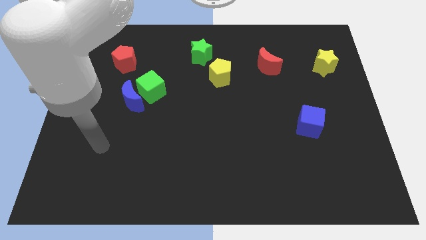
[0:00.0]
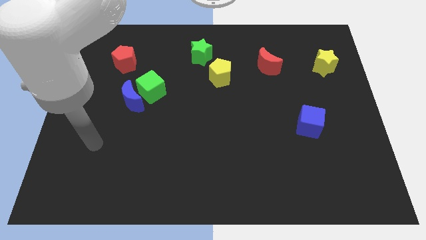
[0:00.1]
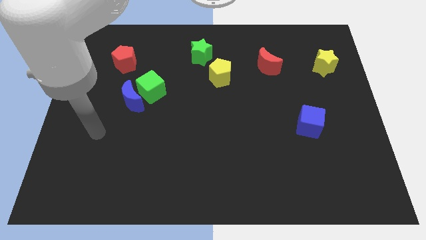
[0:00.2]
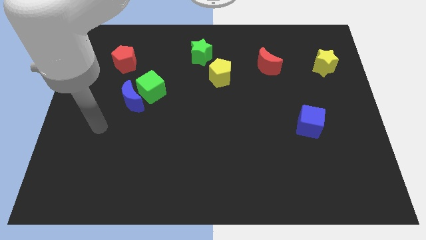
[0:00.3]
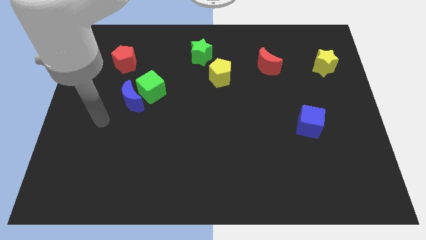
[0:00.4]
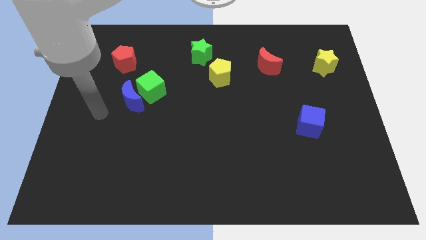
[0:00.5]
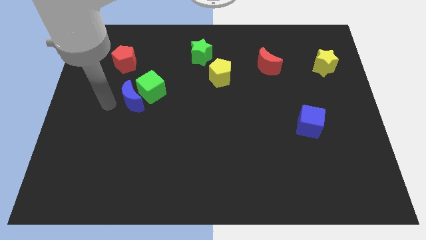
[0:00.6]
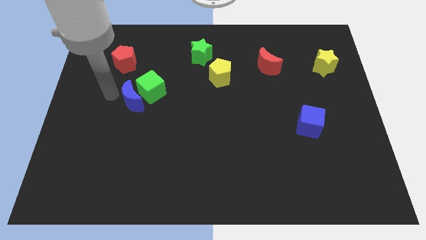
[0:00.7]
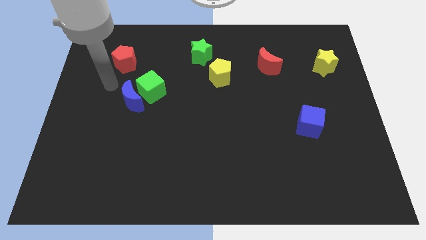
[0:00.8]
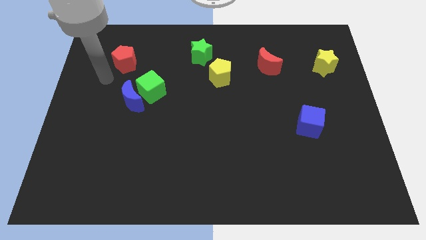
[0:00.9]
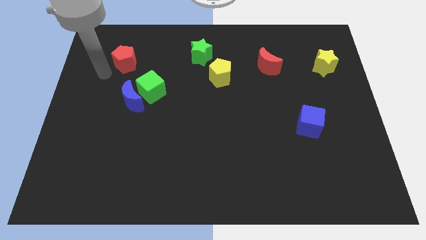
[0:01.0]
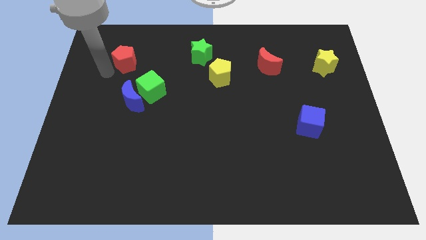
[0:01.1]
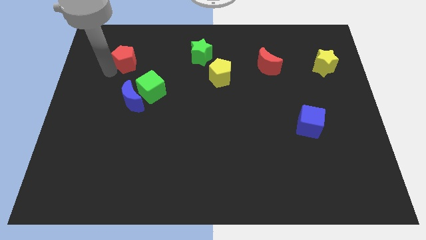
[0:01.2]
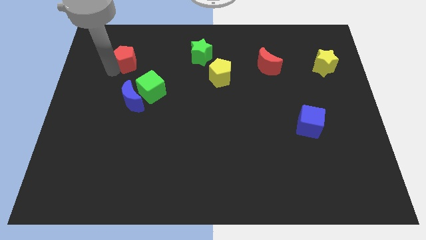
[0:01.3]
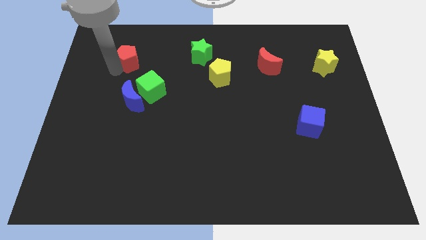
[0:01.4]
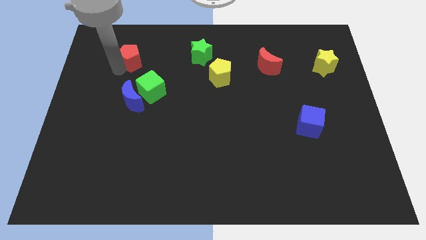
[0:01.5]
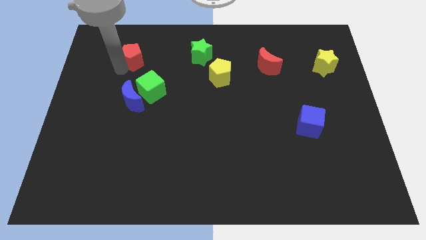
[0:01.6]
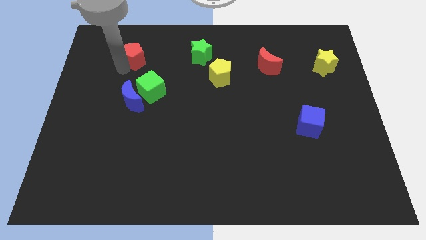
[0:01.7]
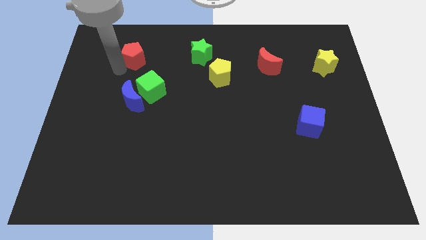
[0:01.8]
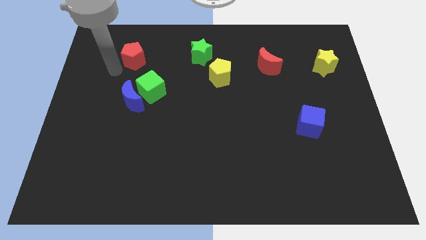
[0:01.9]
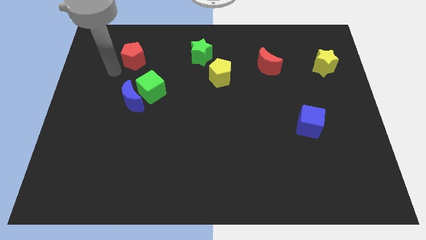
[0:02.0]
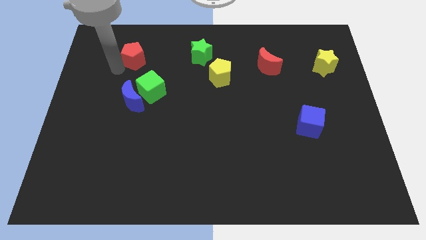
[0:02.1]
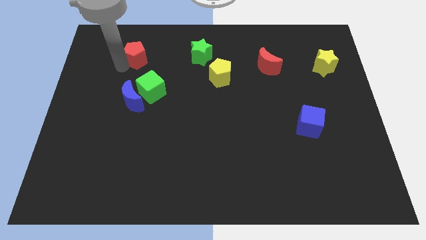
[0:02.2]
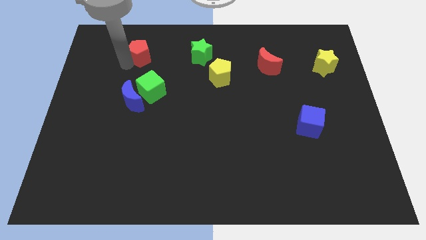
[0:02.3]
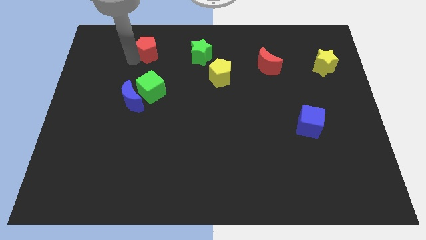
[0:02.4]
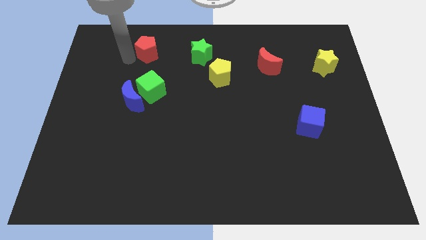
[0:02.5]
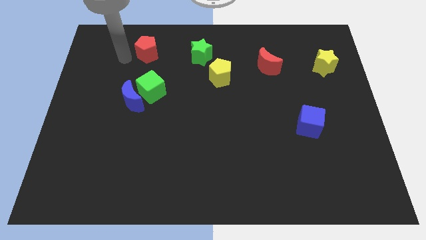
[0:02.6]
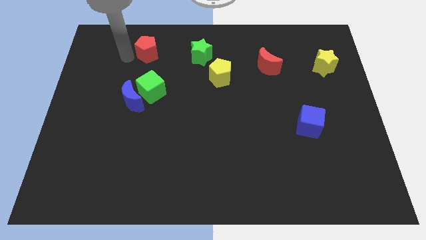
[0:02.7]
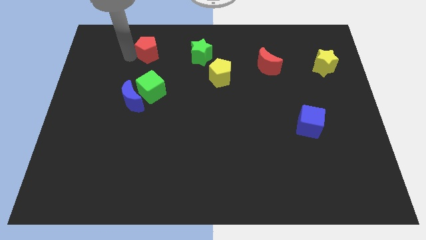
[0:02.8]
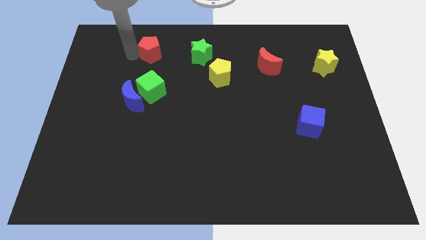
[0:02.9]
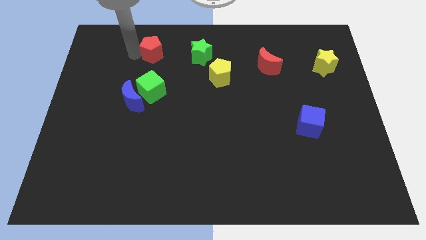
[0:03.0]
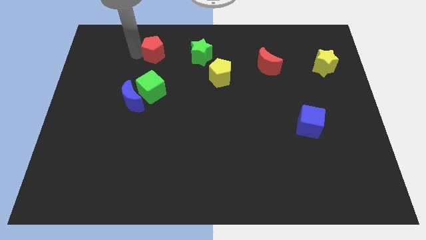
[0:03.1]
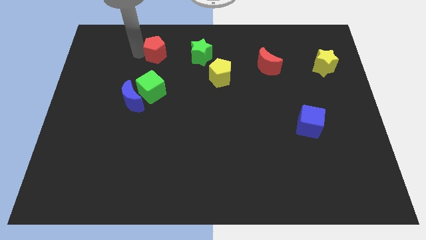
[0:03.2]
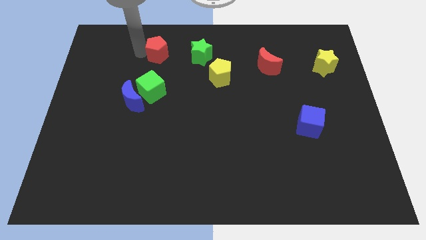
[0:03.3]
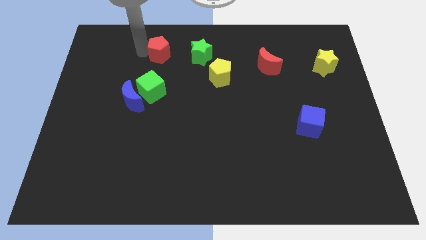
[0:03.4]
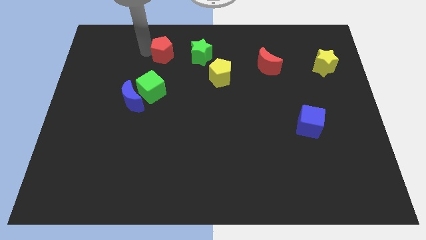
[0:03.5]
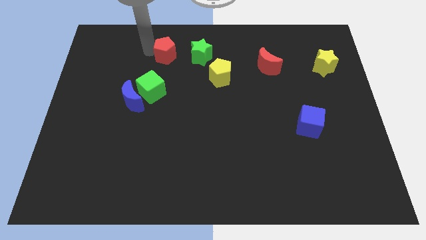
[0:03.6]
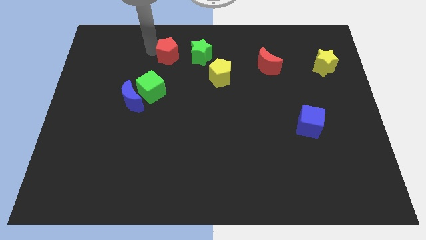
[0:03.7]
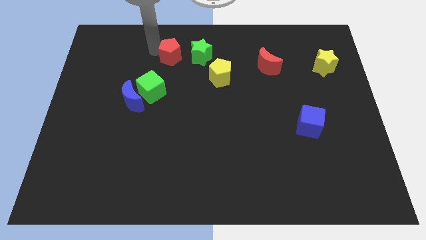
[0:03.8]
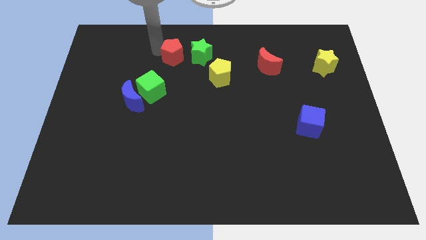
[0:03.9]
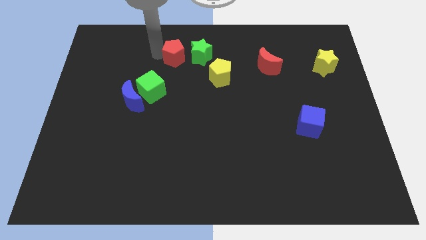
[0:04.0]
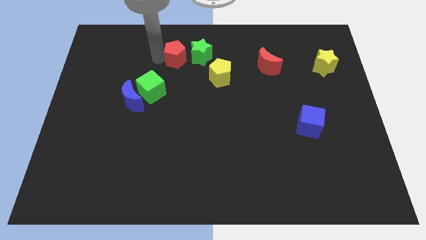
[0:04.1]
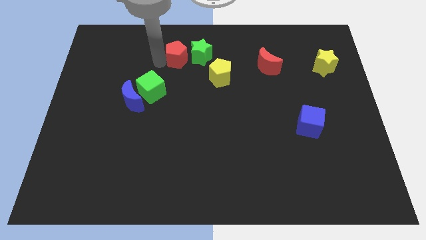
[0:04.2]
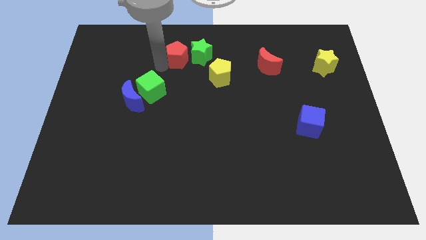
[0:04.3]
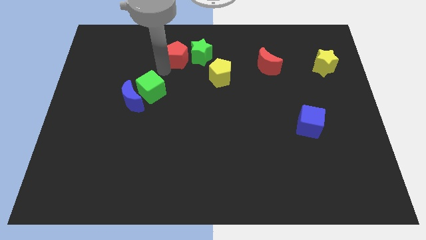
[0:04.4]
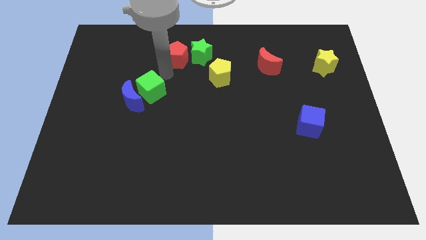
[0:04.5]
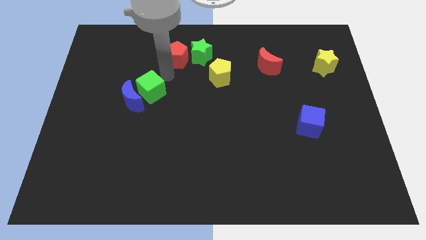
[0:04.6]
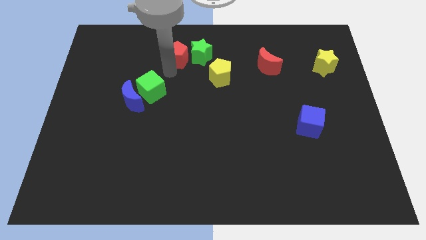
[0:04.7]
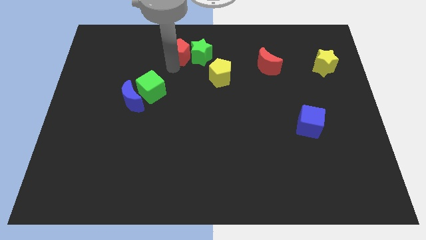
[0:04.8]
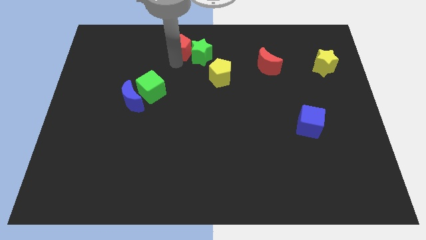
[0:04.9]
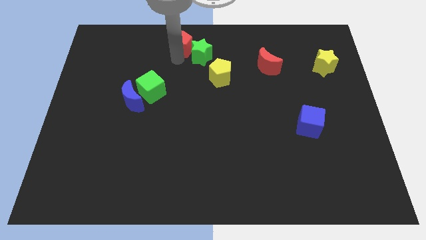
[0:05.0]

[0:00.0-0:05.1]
slide the red pentagon to the top side

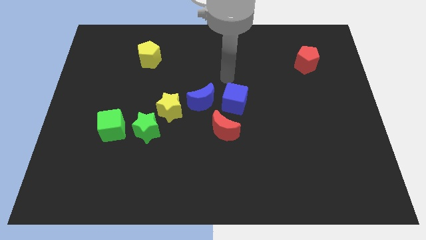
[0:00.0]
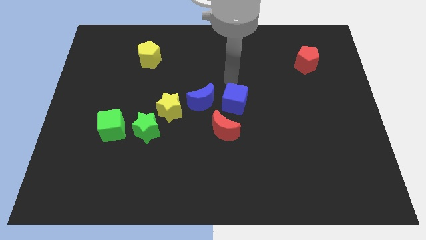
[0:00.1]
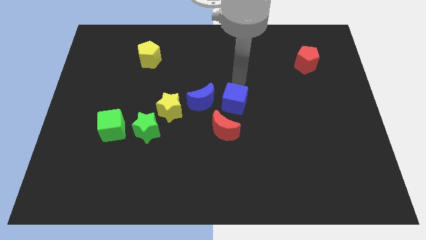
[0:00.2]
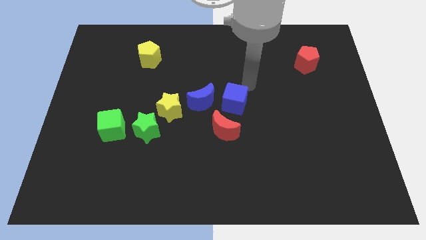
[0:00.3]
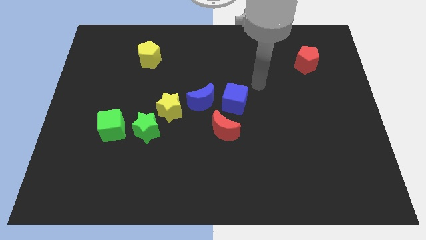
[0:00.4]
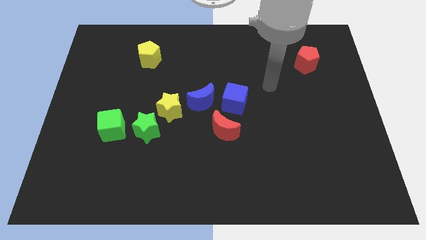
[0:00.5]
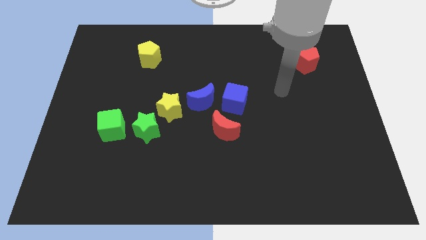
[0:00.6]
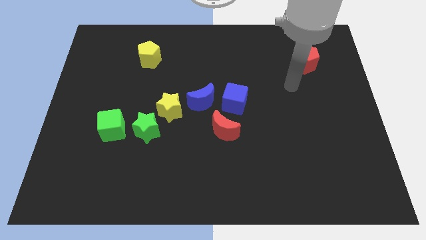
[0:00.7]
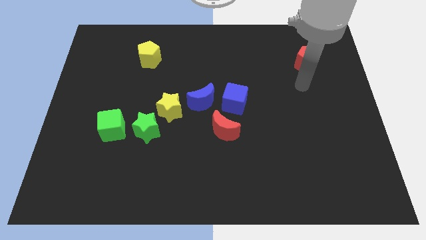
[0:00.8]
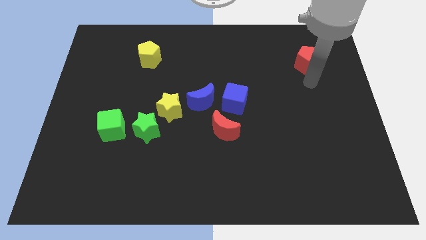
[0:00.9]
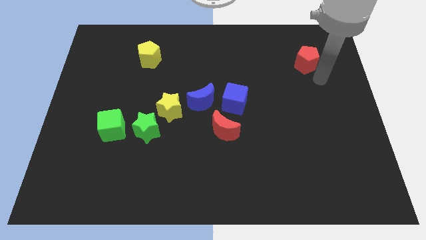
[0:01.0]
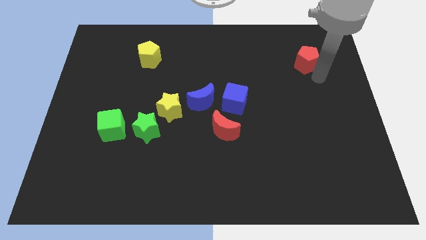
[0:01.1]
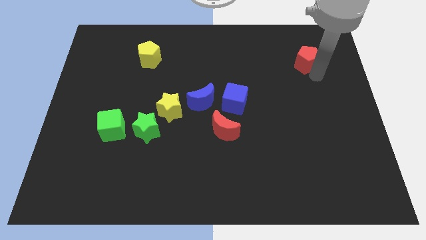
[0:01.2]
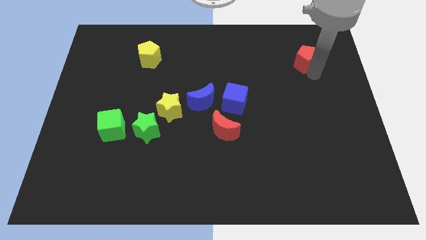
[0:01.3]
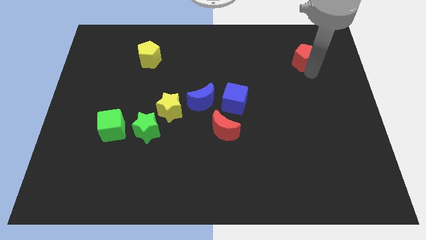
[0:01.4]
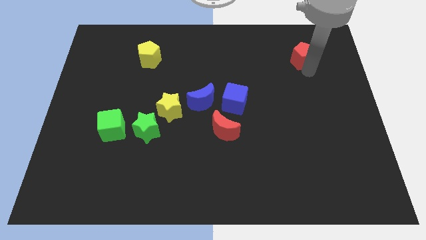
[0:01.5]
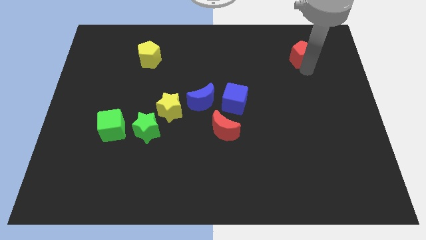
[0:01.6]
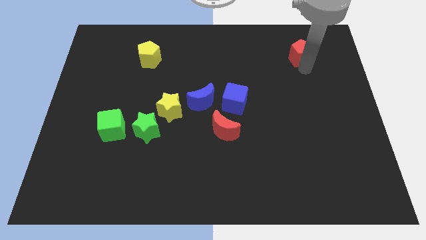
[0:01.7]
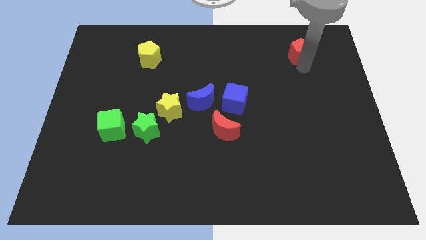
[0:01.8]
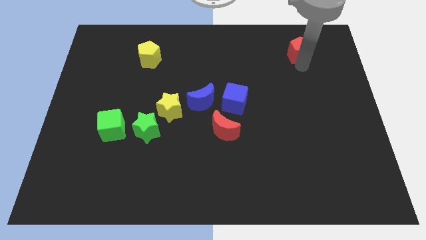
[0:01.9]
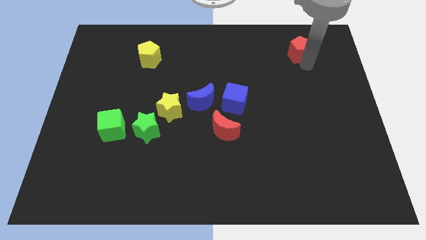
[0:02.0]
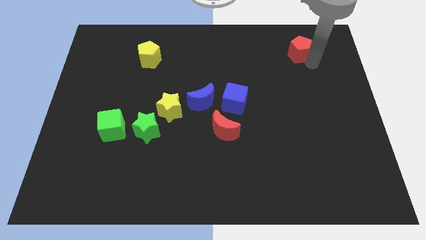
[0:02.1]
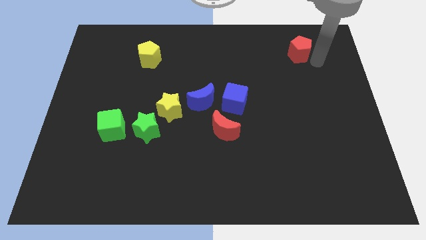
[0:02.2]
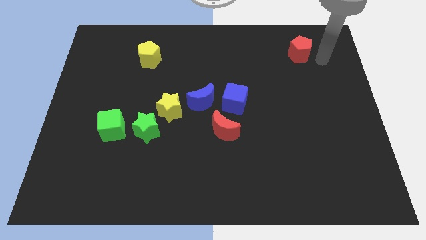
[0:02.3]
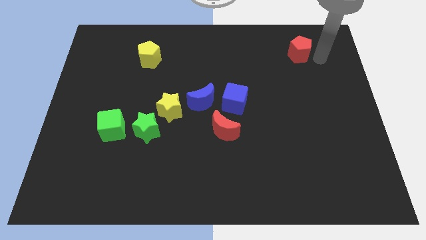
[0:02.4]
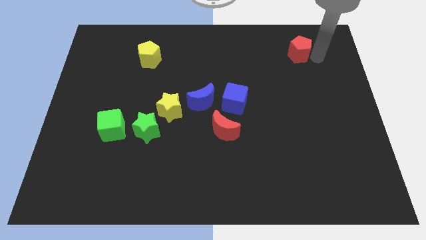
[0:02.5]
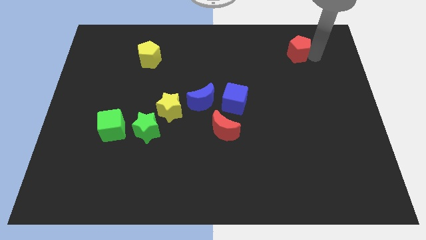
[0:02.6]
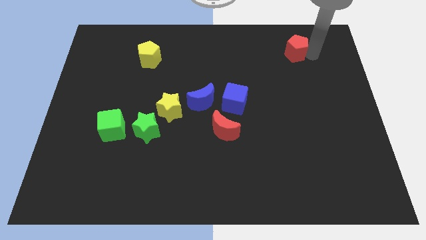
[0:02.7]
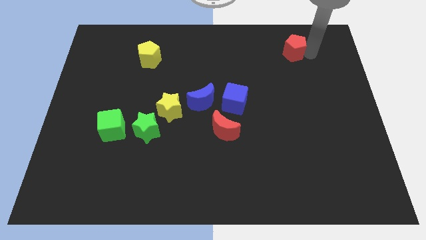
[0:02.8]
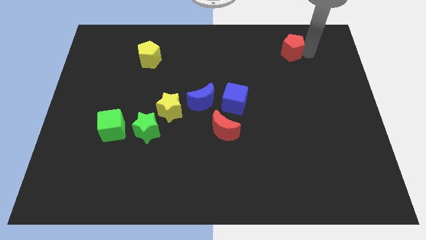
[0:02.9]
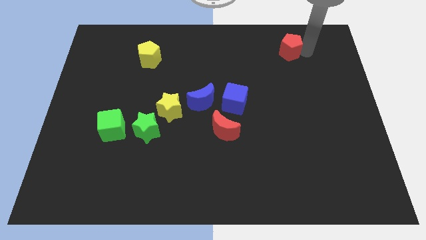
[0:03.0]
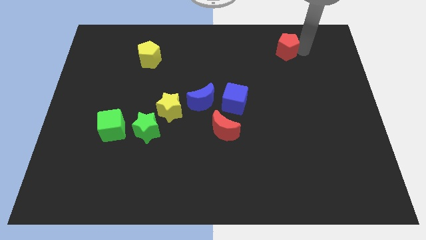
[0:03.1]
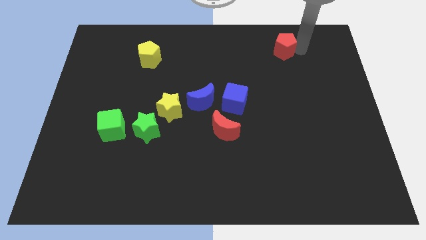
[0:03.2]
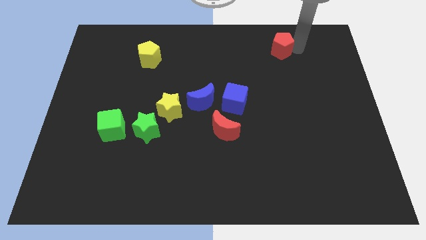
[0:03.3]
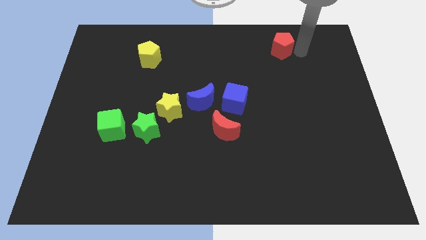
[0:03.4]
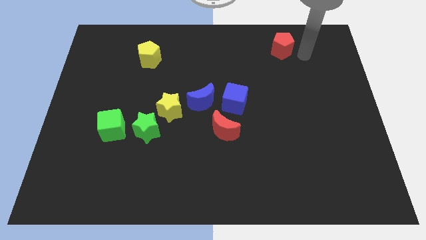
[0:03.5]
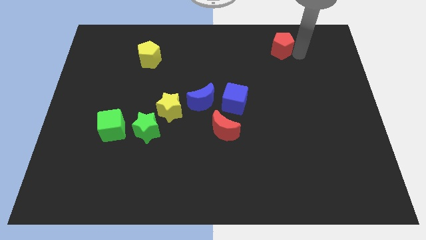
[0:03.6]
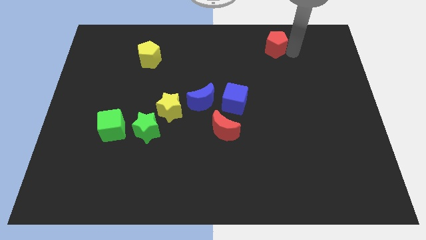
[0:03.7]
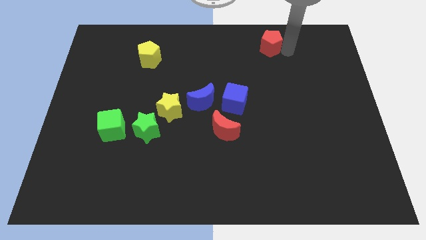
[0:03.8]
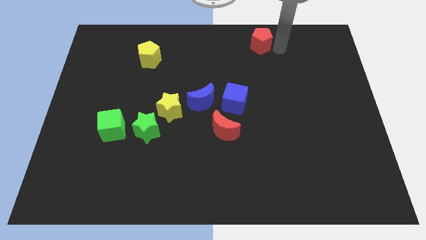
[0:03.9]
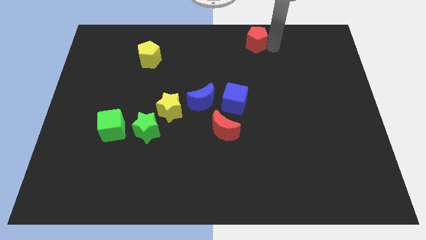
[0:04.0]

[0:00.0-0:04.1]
move the red pentagon to the top side
